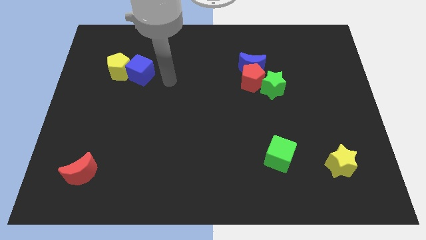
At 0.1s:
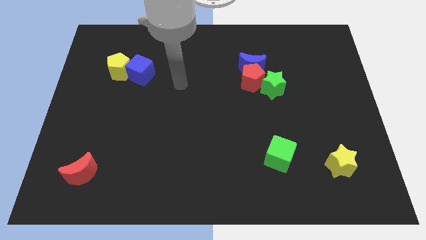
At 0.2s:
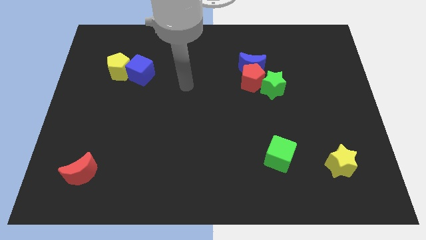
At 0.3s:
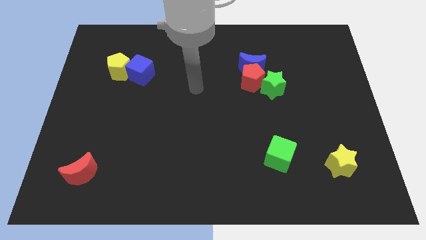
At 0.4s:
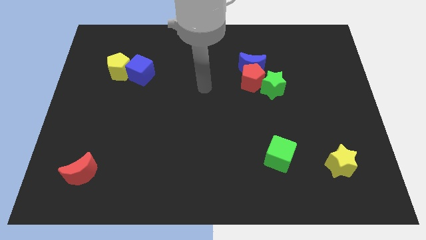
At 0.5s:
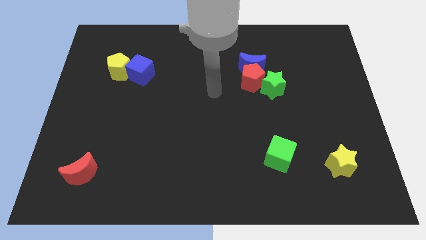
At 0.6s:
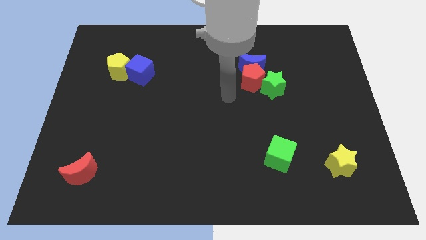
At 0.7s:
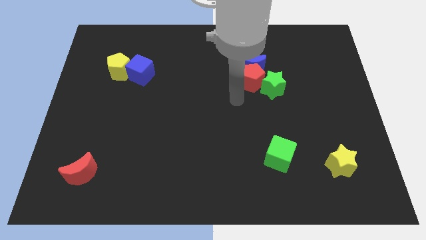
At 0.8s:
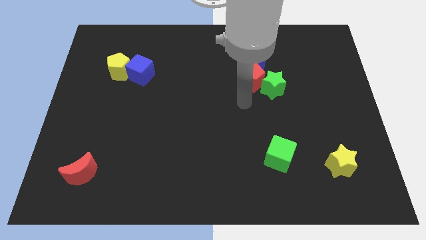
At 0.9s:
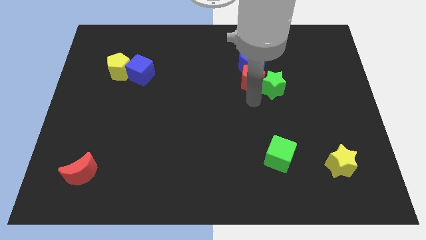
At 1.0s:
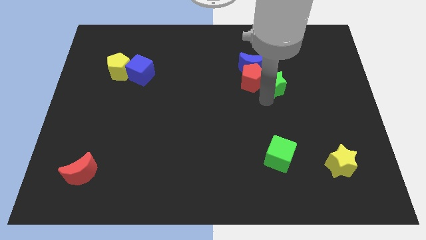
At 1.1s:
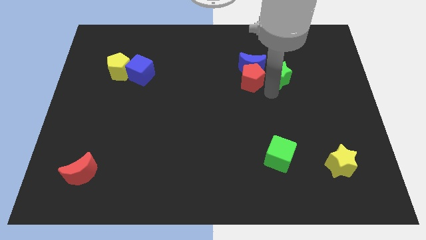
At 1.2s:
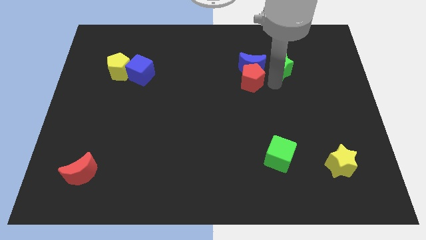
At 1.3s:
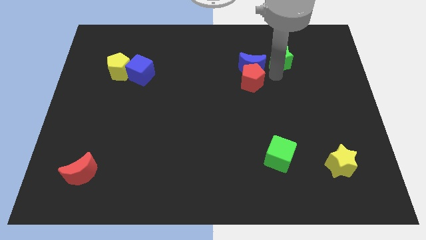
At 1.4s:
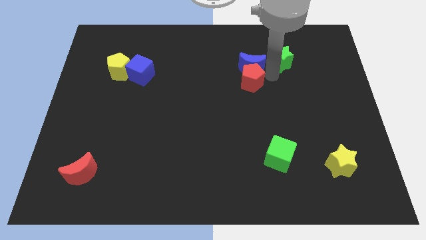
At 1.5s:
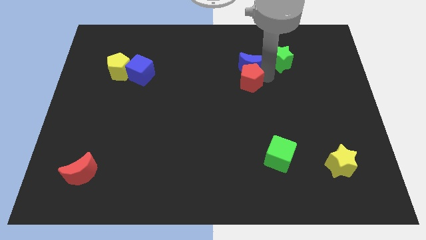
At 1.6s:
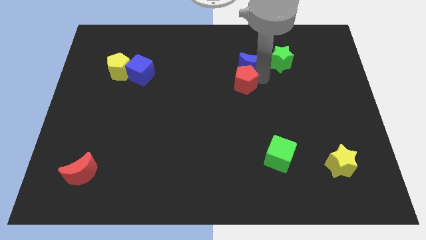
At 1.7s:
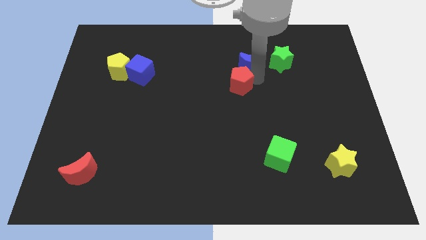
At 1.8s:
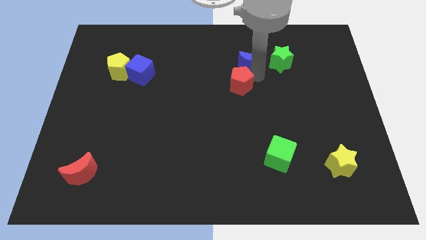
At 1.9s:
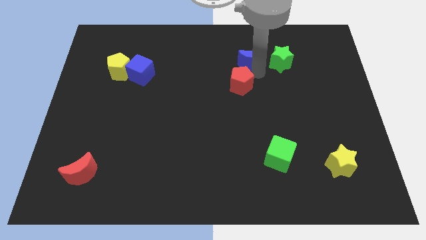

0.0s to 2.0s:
separate the red pentagon from the blue moon and green star

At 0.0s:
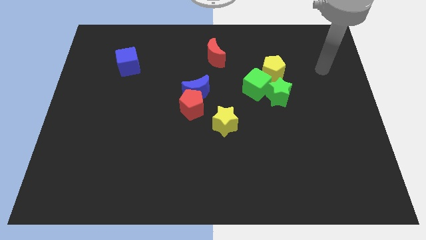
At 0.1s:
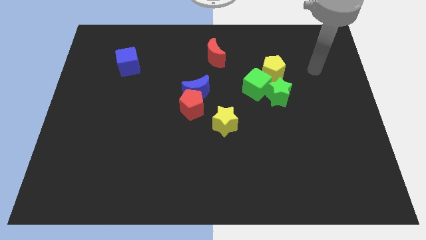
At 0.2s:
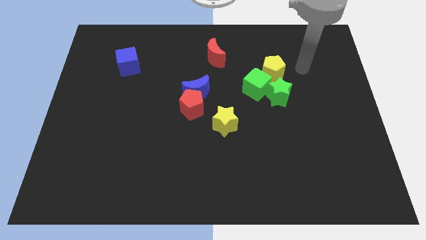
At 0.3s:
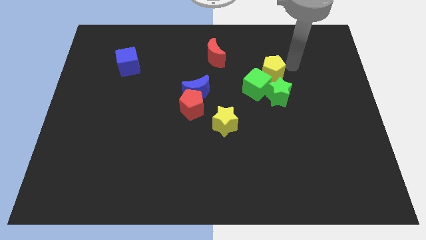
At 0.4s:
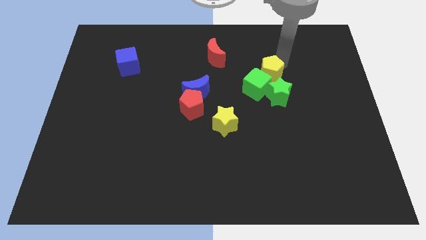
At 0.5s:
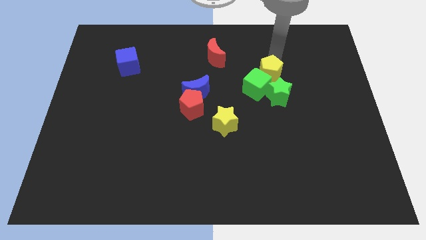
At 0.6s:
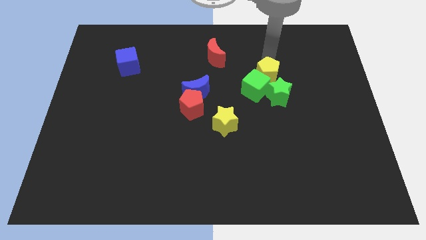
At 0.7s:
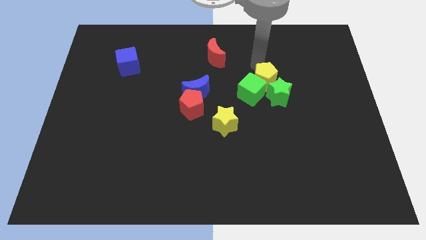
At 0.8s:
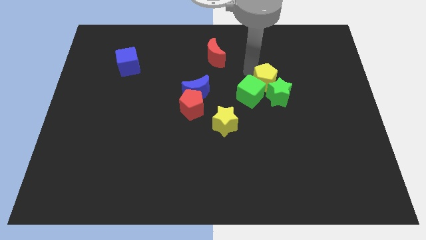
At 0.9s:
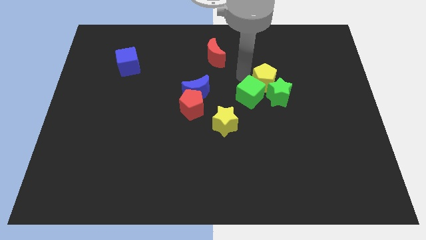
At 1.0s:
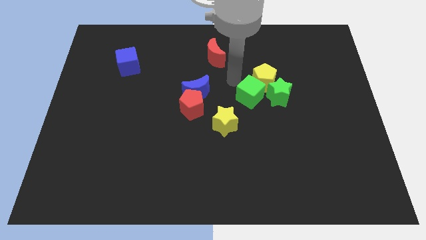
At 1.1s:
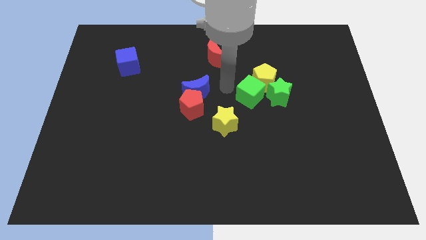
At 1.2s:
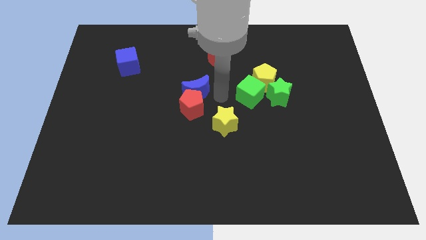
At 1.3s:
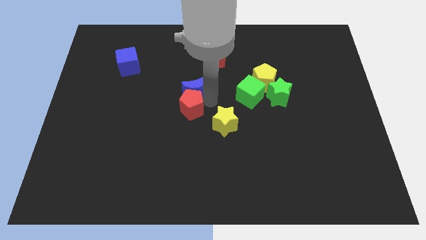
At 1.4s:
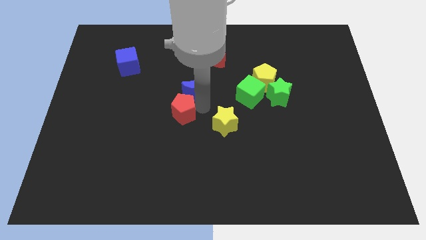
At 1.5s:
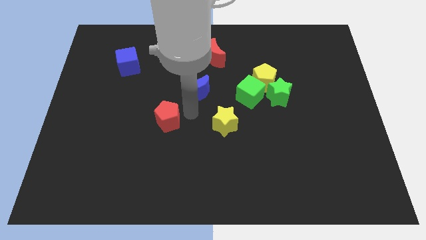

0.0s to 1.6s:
separate the blue moon from the red pentagon

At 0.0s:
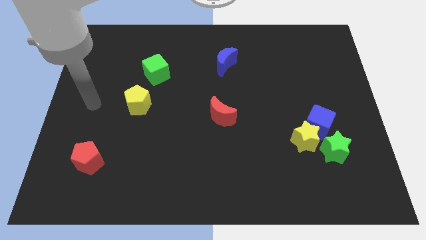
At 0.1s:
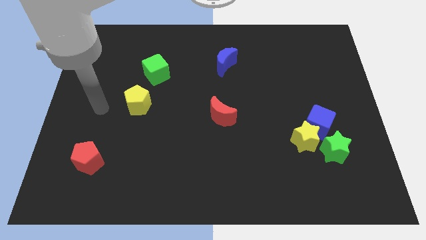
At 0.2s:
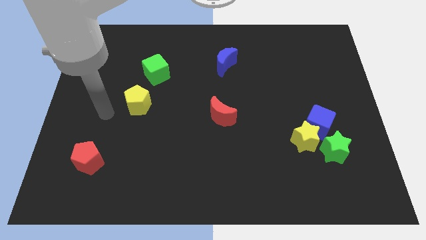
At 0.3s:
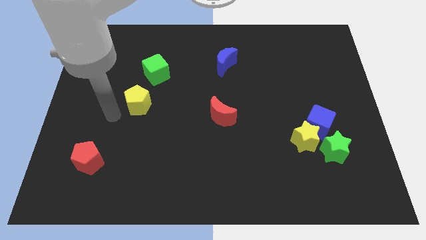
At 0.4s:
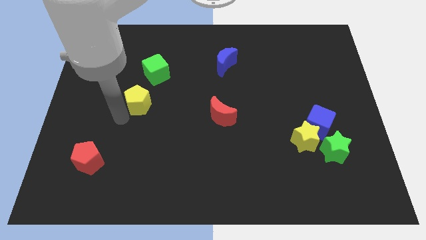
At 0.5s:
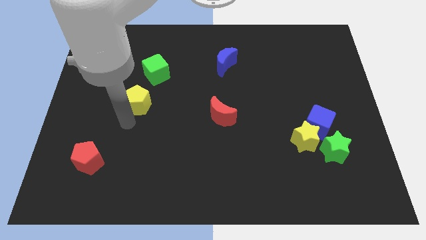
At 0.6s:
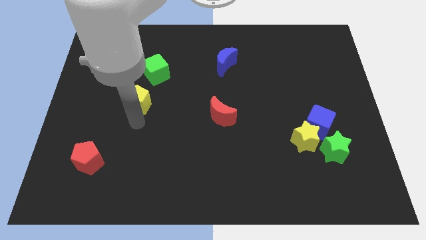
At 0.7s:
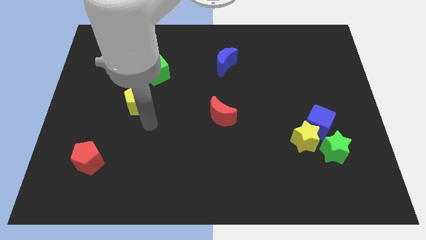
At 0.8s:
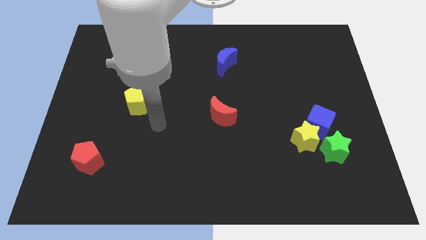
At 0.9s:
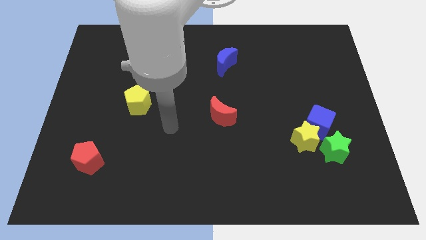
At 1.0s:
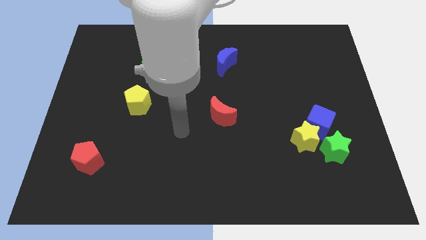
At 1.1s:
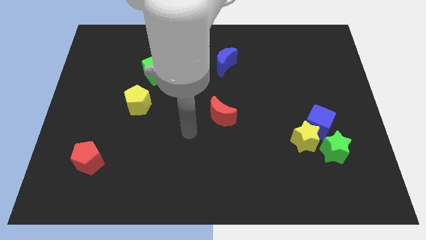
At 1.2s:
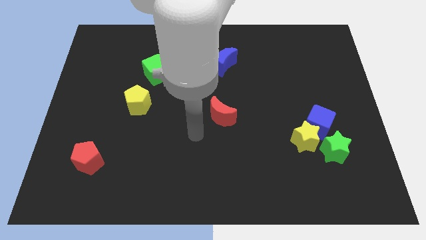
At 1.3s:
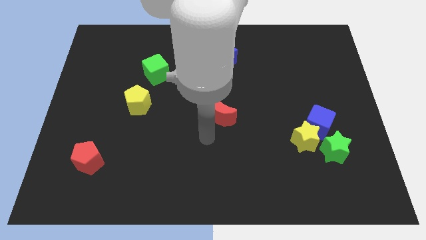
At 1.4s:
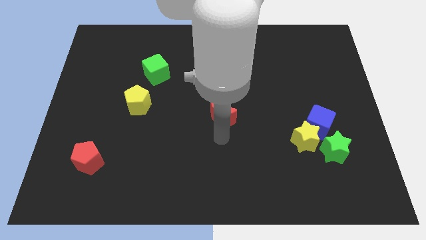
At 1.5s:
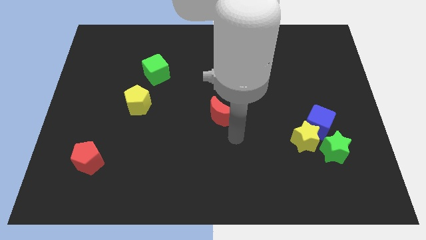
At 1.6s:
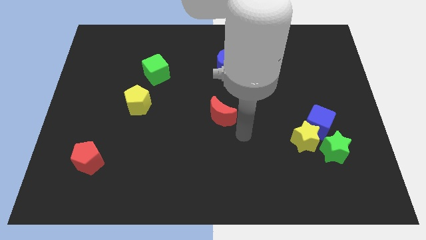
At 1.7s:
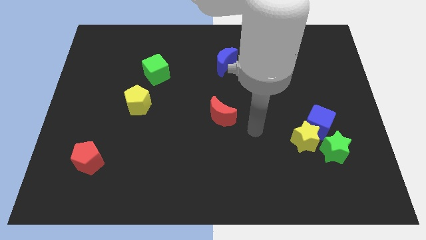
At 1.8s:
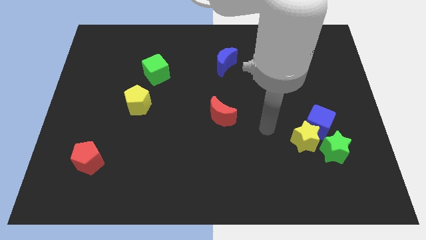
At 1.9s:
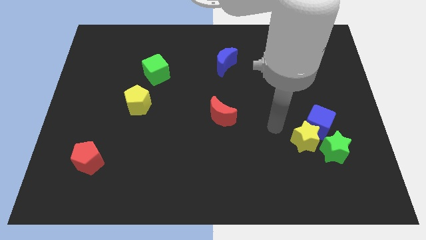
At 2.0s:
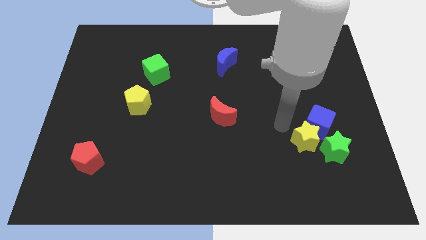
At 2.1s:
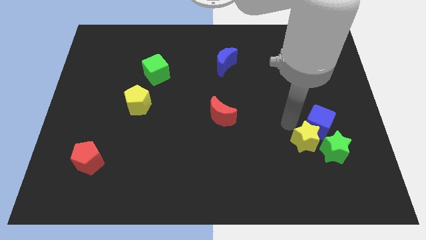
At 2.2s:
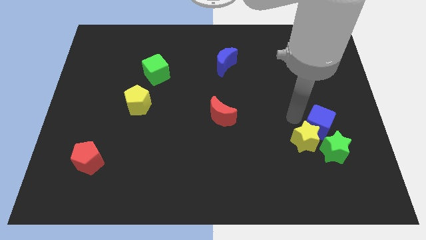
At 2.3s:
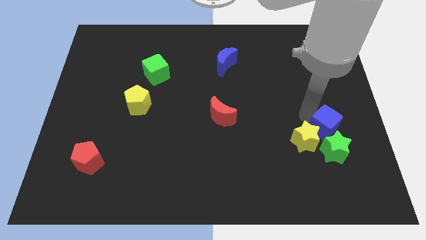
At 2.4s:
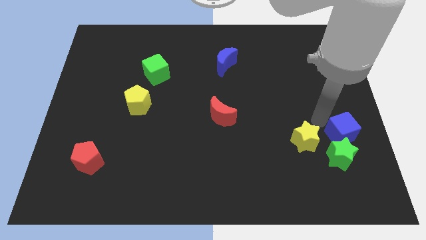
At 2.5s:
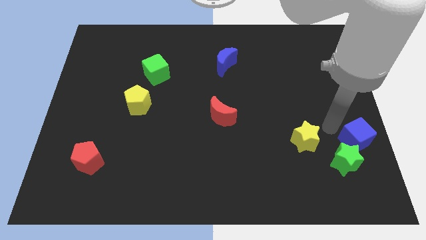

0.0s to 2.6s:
separate the yellow star from the blue cube and green star

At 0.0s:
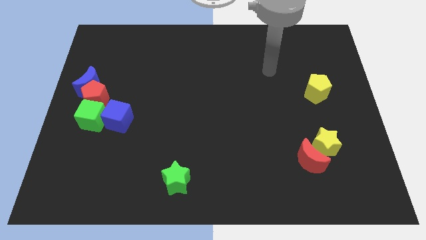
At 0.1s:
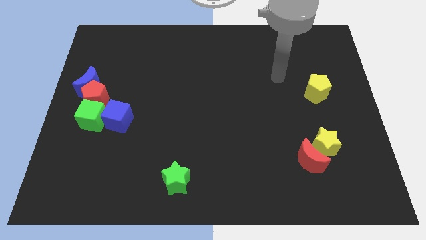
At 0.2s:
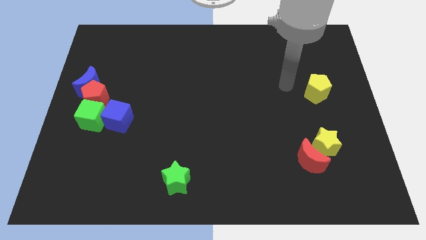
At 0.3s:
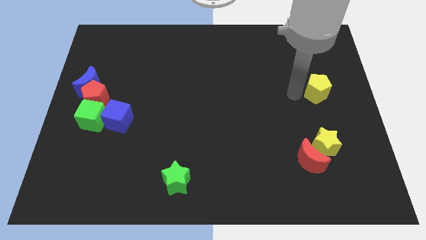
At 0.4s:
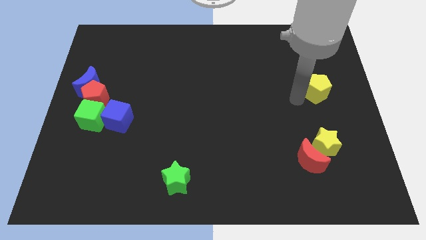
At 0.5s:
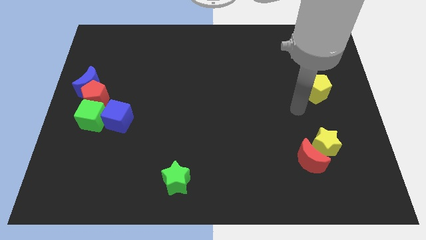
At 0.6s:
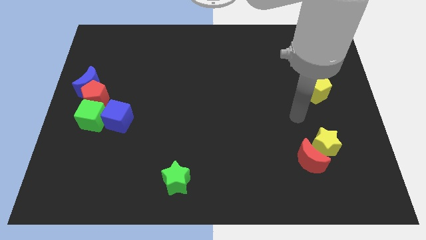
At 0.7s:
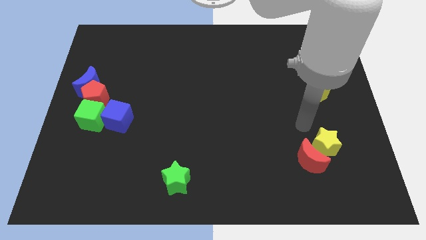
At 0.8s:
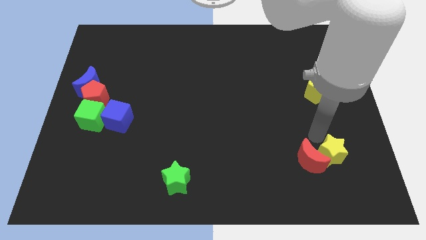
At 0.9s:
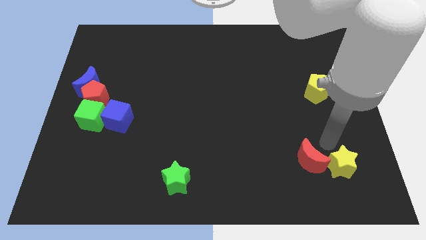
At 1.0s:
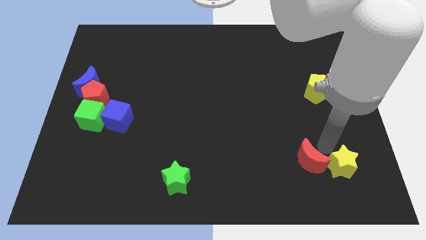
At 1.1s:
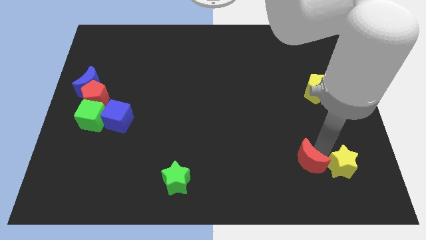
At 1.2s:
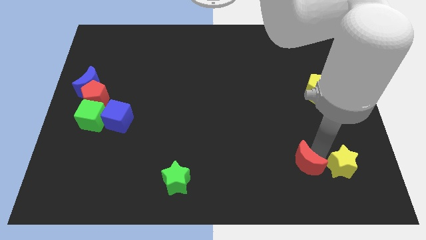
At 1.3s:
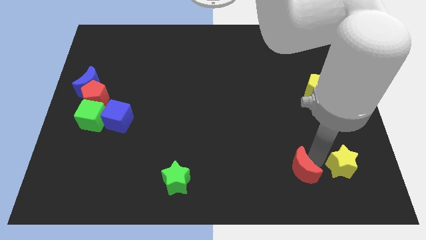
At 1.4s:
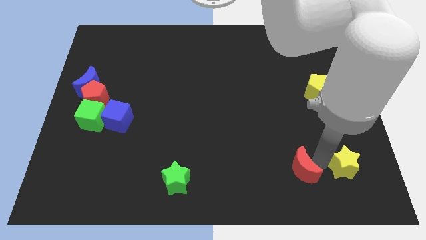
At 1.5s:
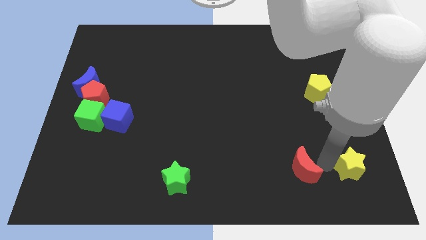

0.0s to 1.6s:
move the red moon away from the yellow star

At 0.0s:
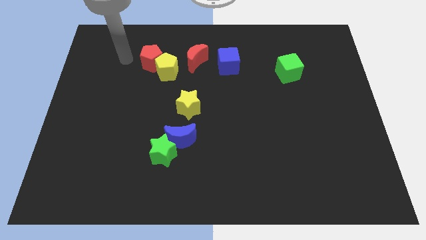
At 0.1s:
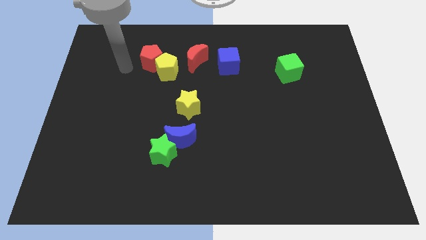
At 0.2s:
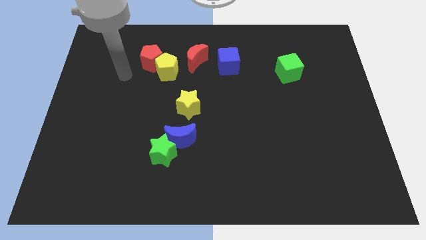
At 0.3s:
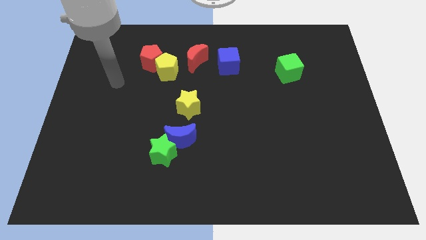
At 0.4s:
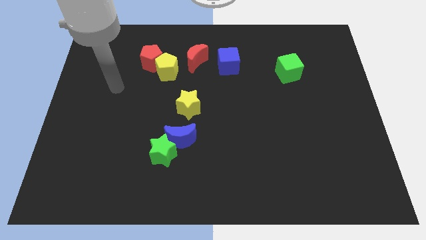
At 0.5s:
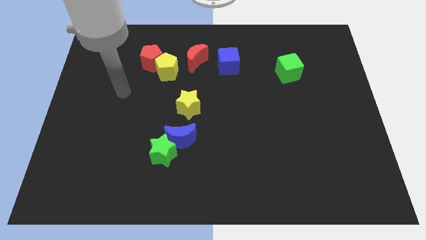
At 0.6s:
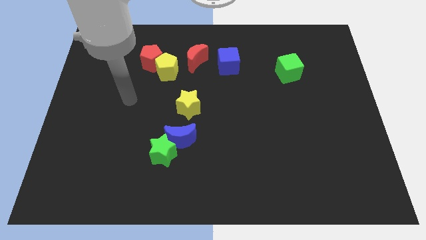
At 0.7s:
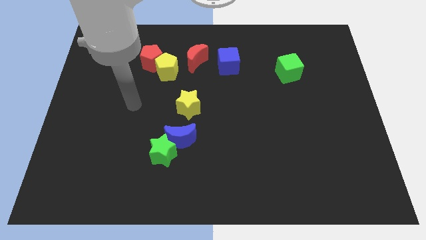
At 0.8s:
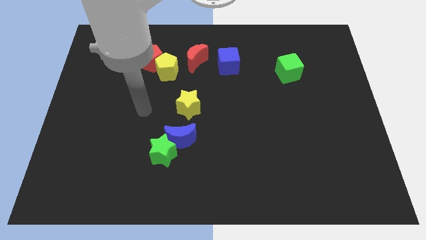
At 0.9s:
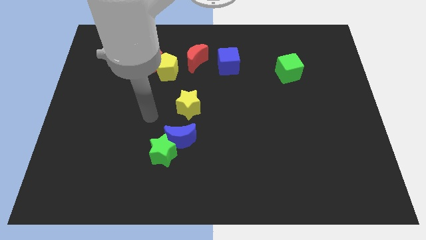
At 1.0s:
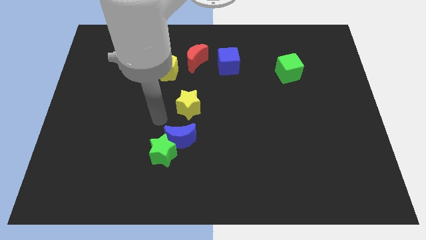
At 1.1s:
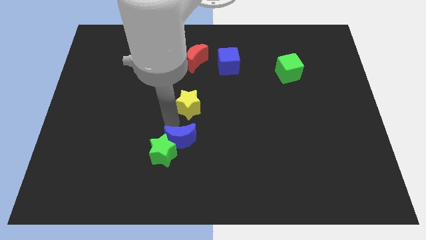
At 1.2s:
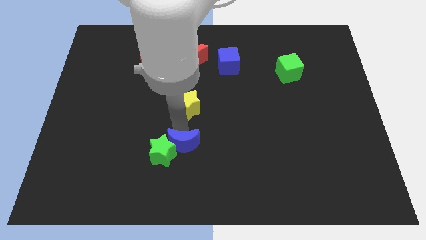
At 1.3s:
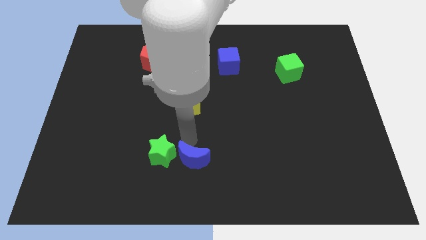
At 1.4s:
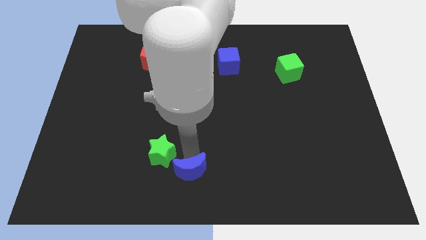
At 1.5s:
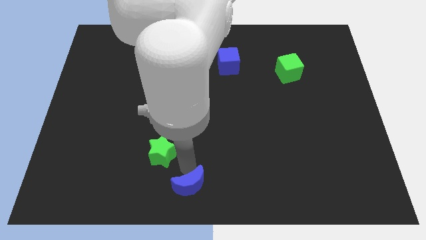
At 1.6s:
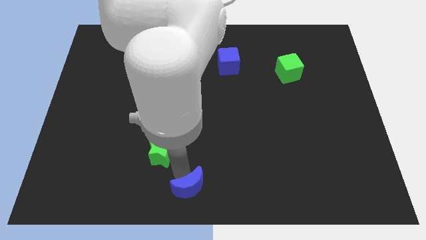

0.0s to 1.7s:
pull the green star apart from the blue moon
